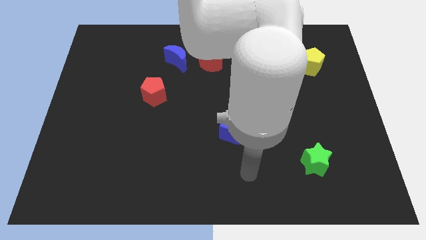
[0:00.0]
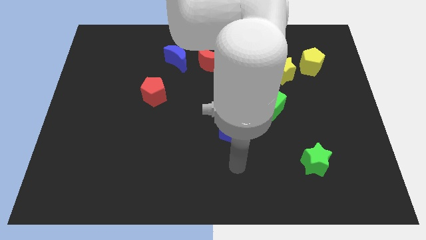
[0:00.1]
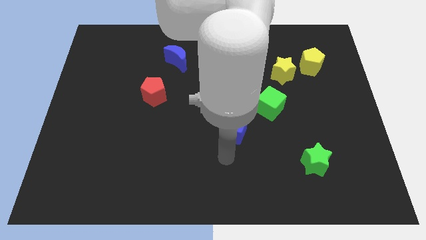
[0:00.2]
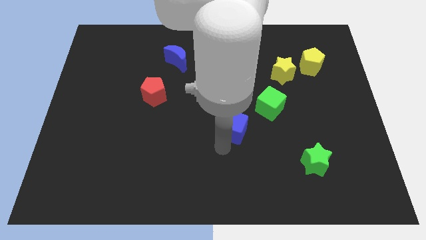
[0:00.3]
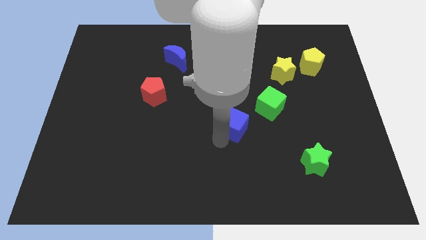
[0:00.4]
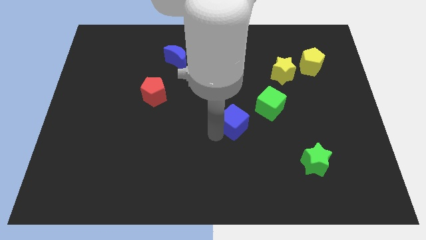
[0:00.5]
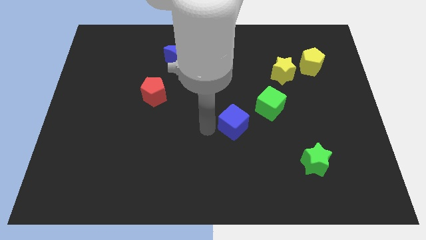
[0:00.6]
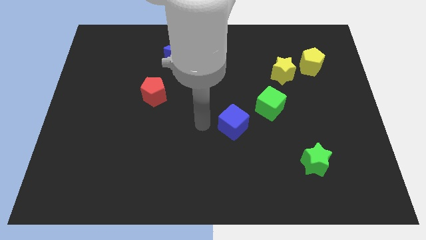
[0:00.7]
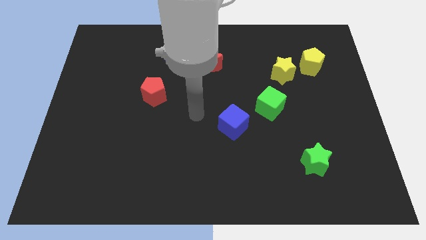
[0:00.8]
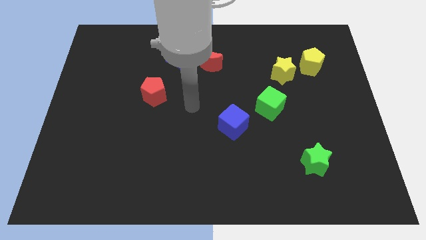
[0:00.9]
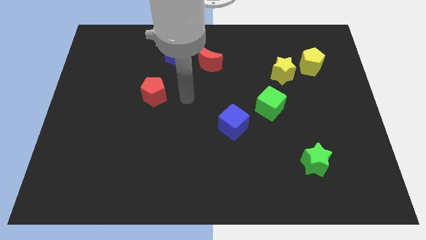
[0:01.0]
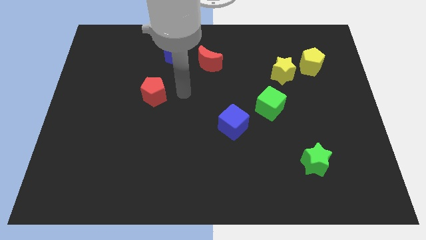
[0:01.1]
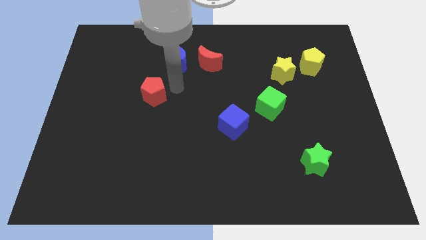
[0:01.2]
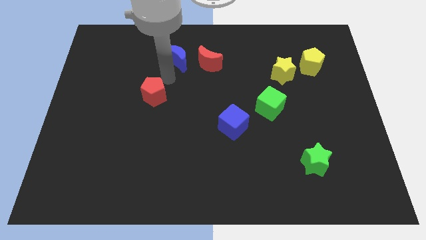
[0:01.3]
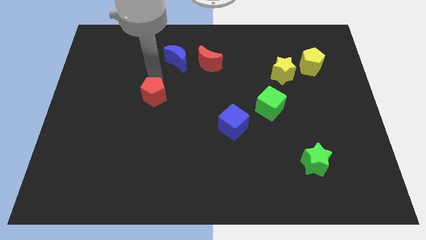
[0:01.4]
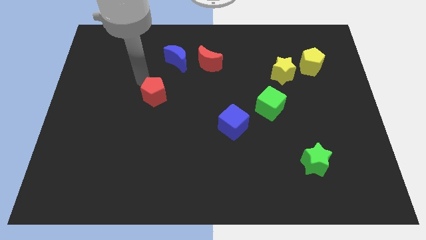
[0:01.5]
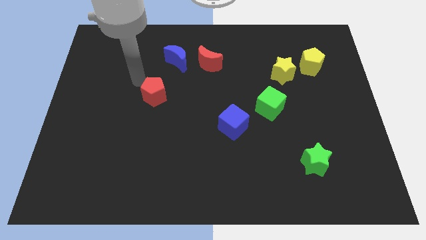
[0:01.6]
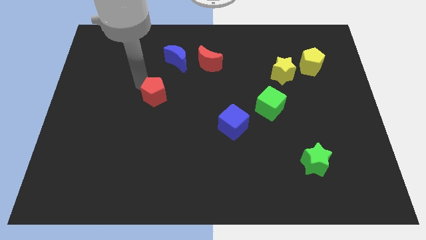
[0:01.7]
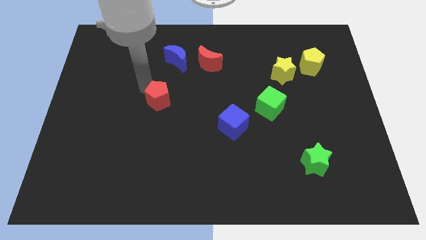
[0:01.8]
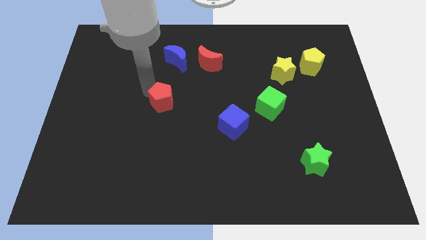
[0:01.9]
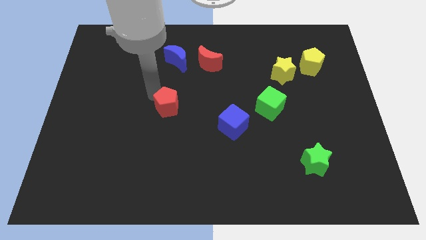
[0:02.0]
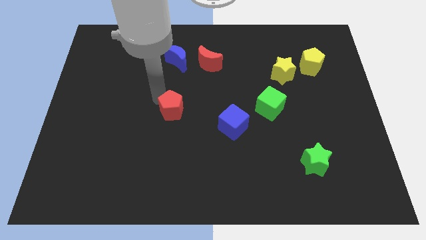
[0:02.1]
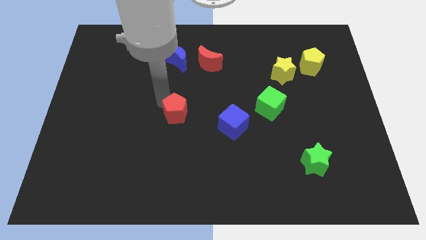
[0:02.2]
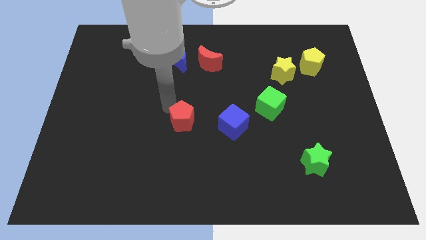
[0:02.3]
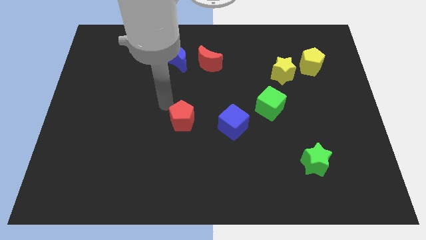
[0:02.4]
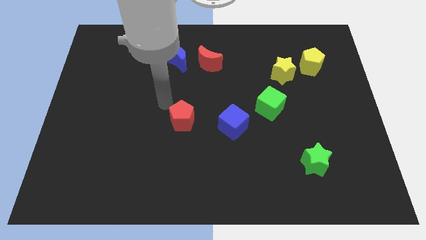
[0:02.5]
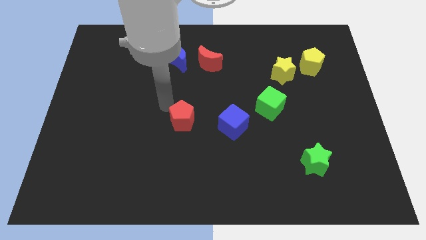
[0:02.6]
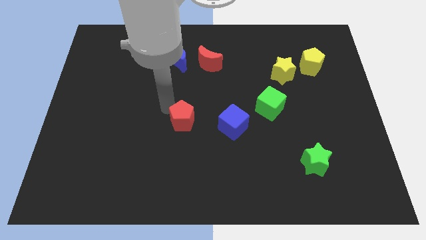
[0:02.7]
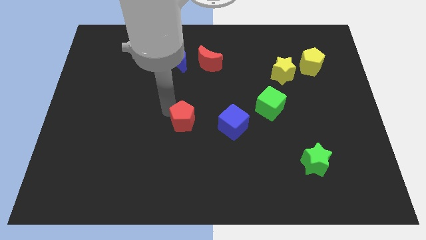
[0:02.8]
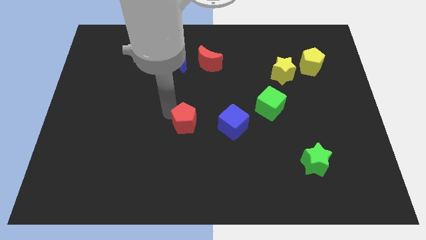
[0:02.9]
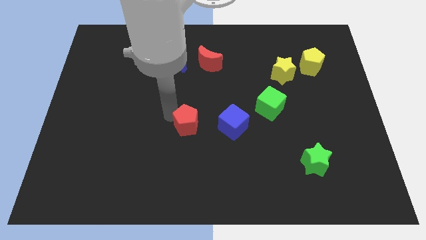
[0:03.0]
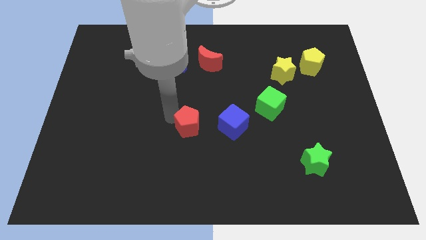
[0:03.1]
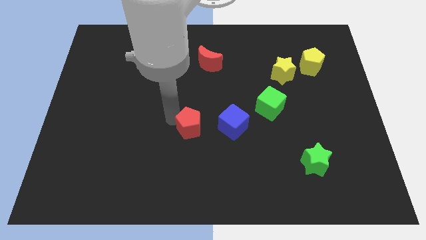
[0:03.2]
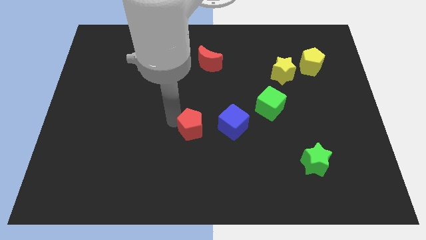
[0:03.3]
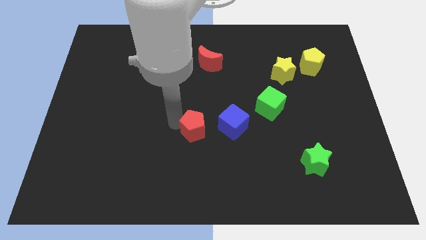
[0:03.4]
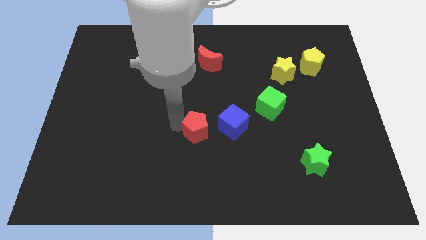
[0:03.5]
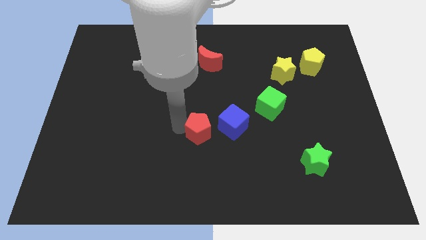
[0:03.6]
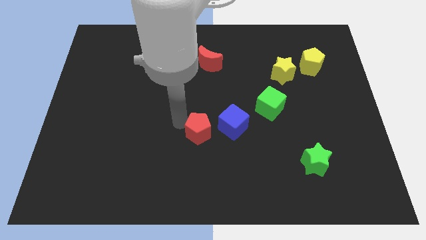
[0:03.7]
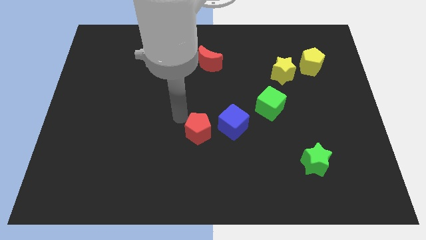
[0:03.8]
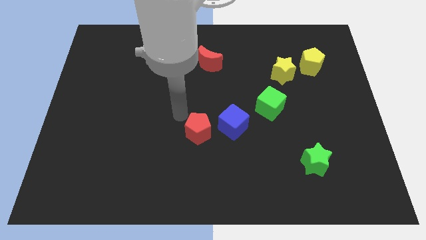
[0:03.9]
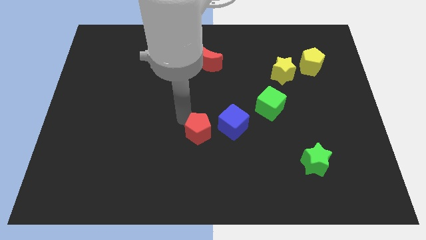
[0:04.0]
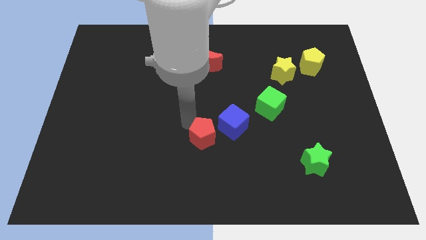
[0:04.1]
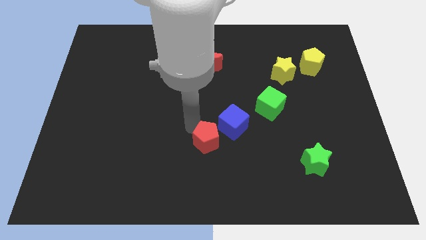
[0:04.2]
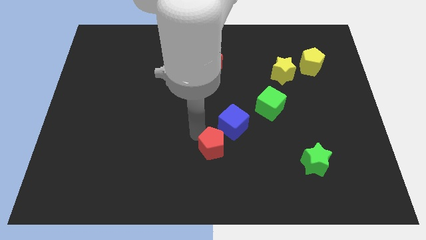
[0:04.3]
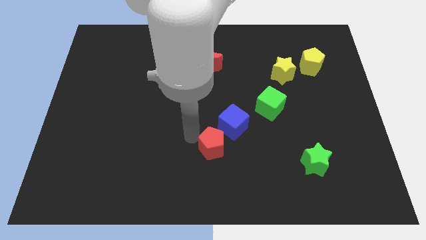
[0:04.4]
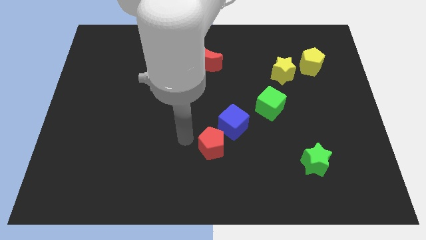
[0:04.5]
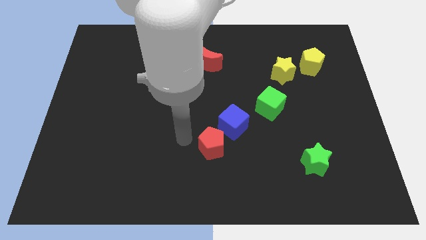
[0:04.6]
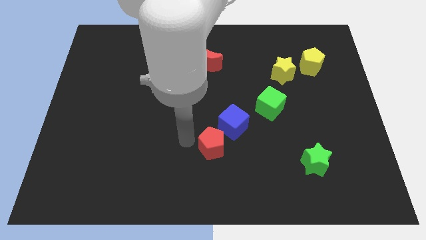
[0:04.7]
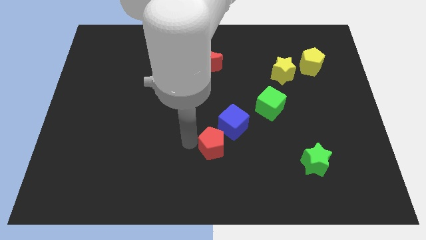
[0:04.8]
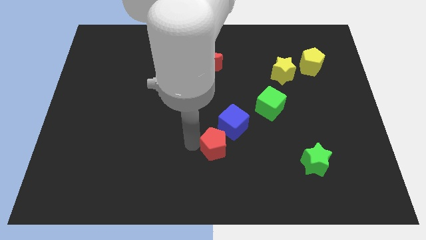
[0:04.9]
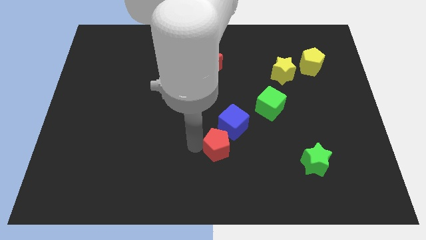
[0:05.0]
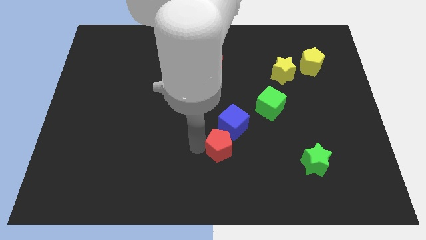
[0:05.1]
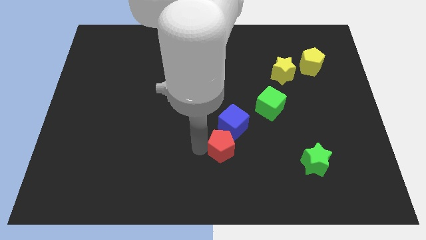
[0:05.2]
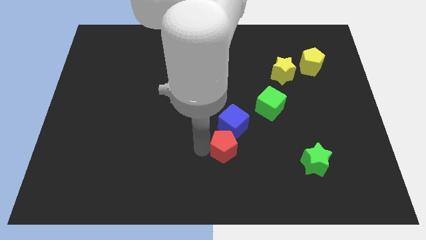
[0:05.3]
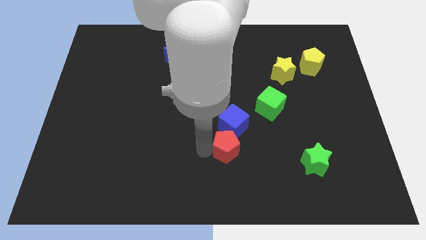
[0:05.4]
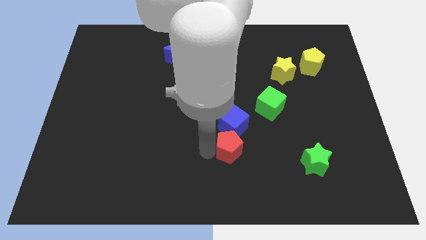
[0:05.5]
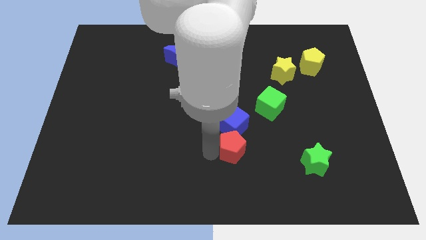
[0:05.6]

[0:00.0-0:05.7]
put the red pentagon diagonally down and to the right of the blue cube
